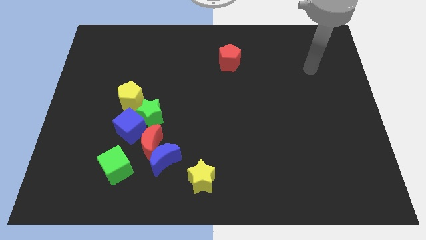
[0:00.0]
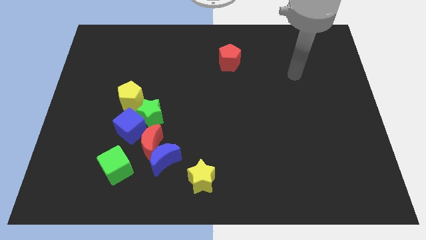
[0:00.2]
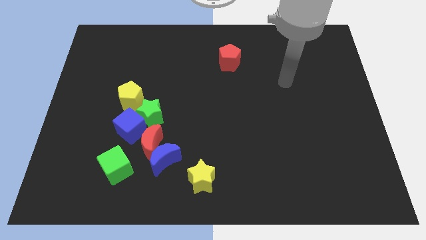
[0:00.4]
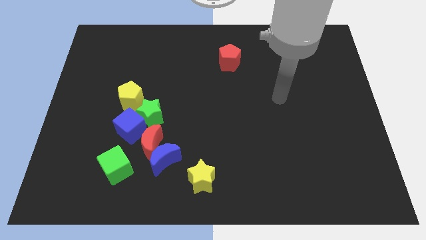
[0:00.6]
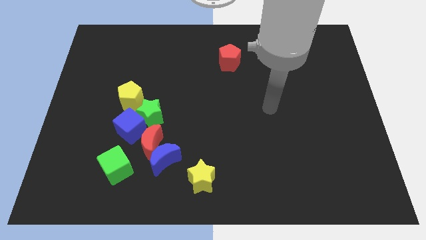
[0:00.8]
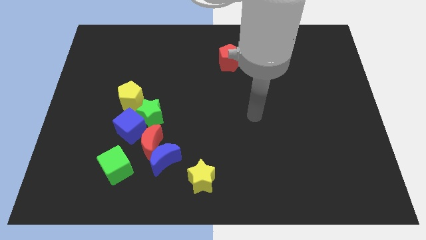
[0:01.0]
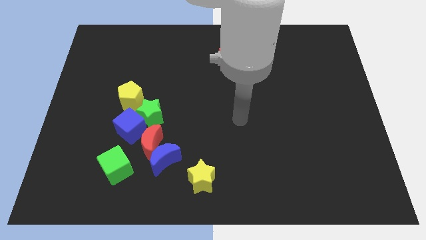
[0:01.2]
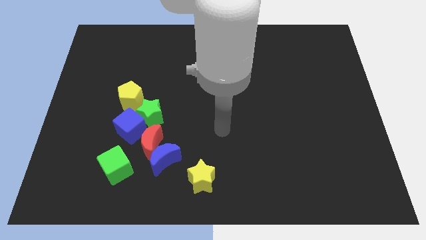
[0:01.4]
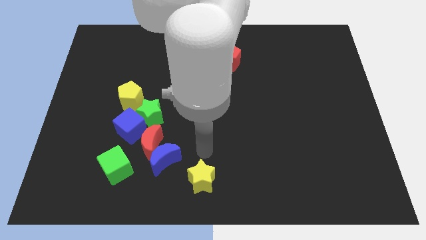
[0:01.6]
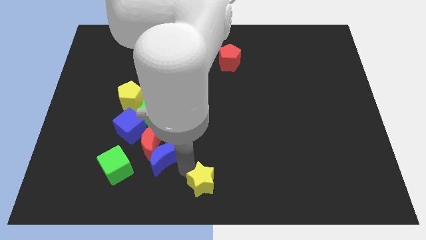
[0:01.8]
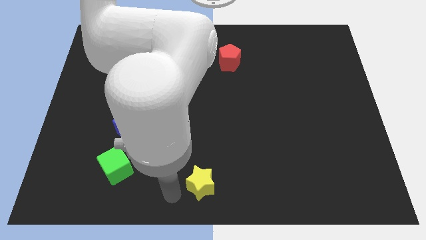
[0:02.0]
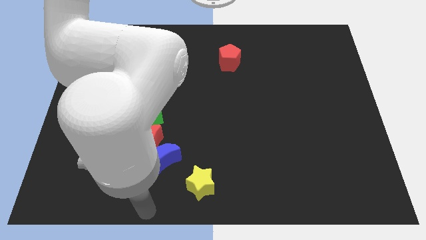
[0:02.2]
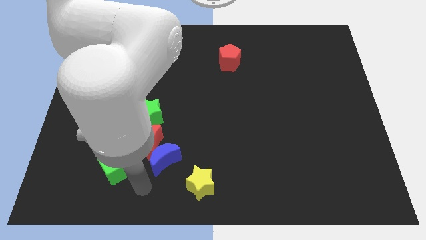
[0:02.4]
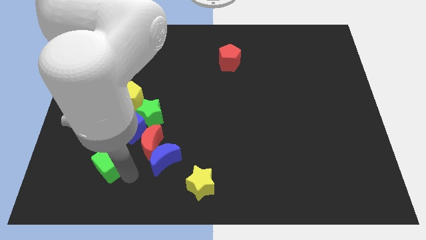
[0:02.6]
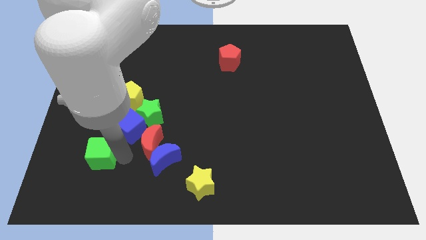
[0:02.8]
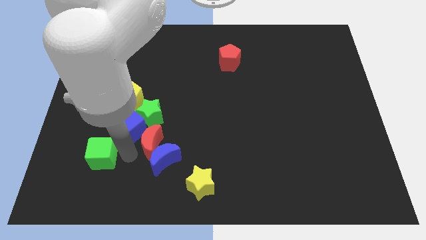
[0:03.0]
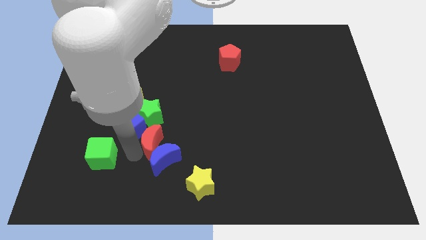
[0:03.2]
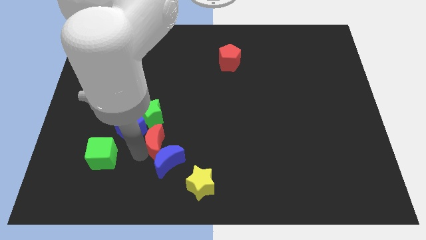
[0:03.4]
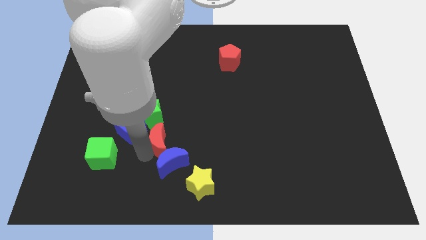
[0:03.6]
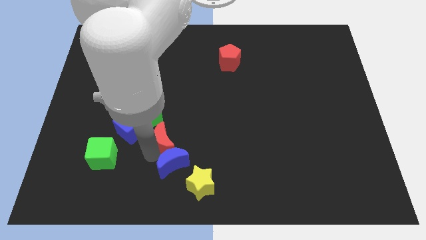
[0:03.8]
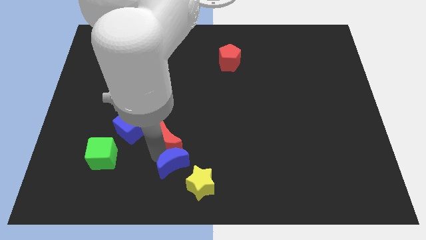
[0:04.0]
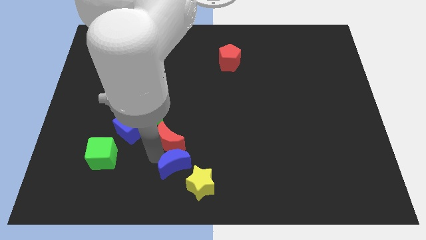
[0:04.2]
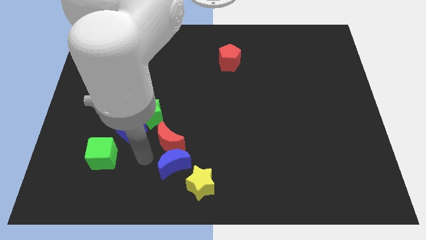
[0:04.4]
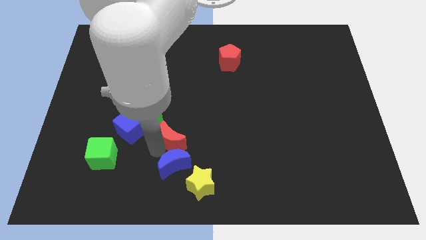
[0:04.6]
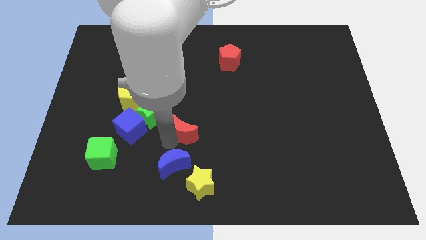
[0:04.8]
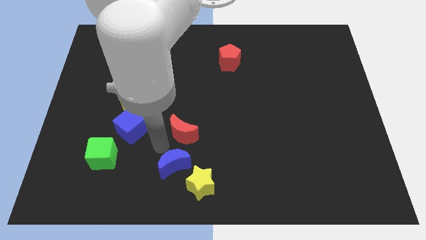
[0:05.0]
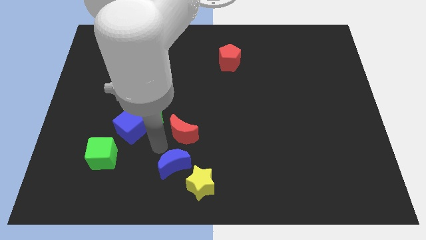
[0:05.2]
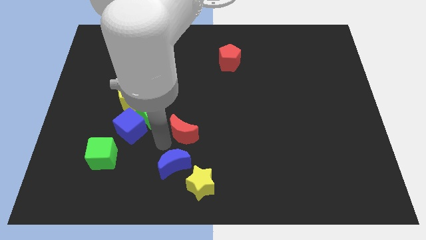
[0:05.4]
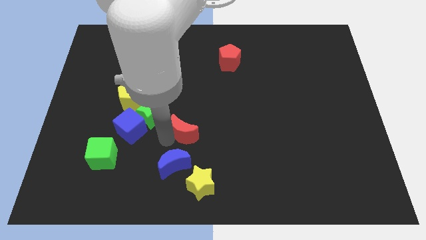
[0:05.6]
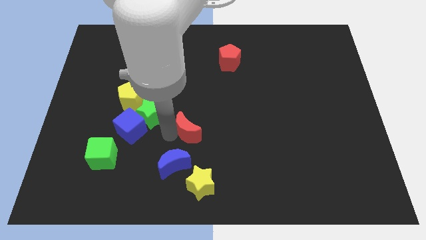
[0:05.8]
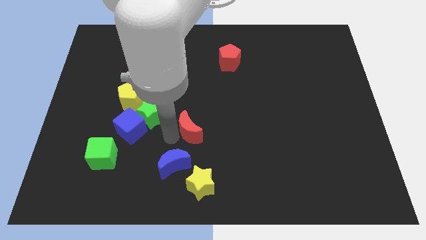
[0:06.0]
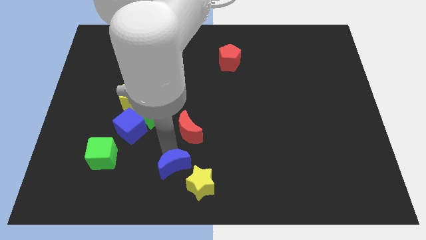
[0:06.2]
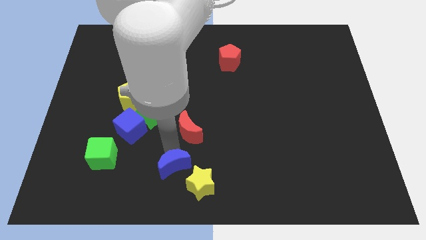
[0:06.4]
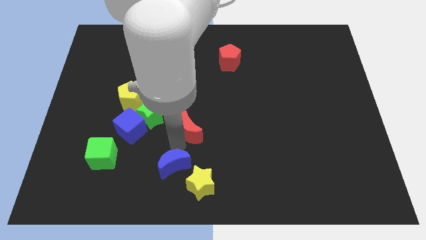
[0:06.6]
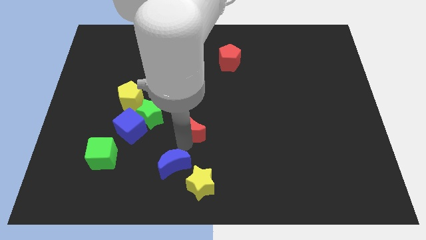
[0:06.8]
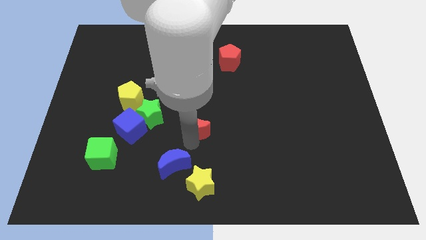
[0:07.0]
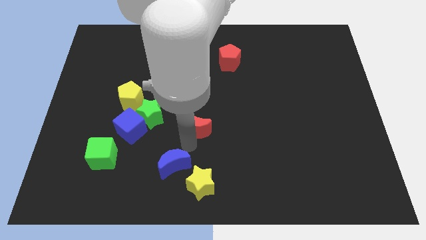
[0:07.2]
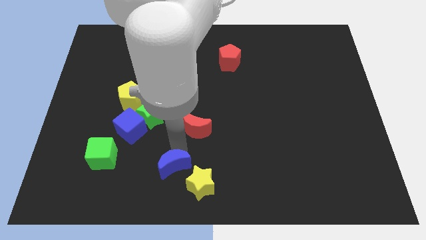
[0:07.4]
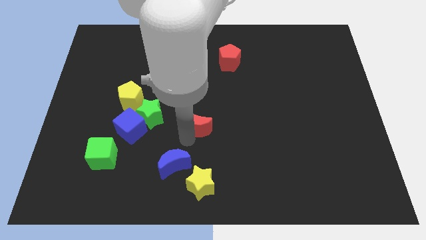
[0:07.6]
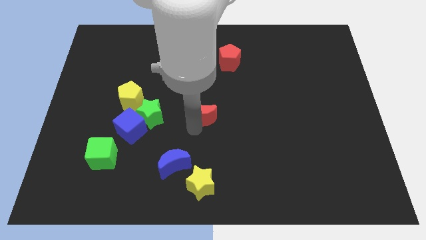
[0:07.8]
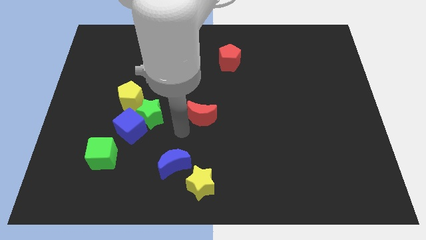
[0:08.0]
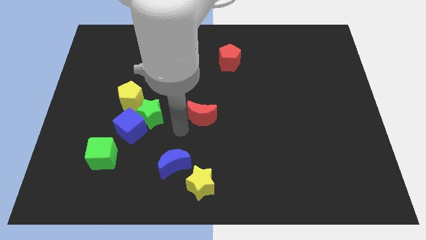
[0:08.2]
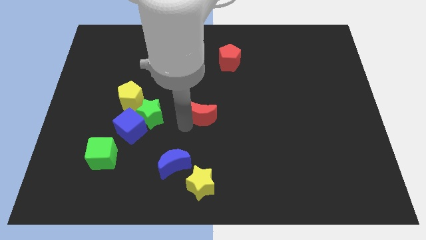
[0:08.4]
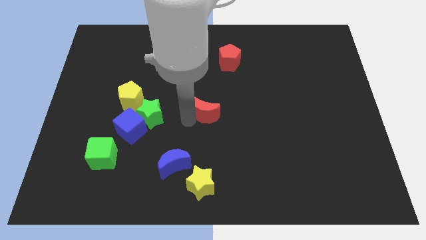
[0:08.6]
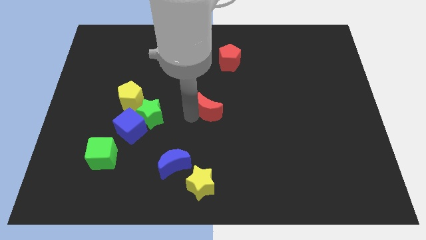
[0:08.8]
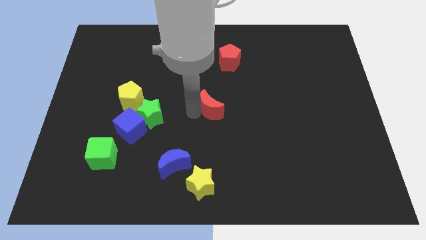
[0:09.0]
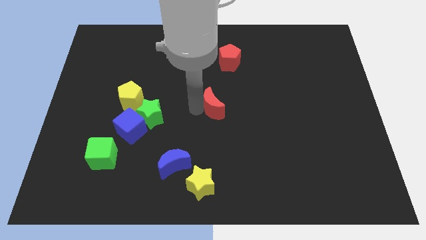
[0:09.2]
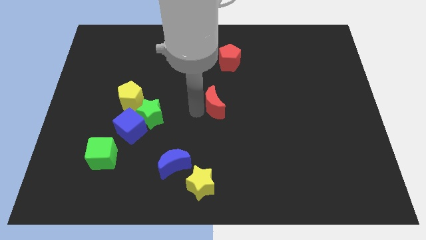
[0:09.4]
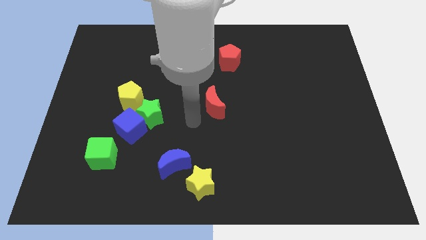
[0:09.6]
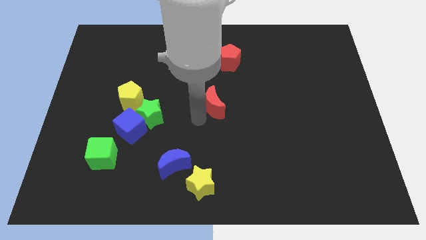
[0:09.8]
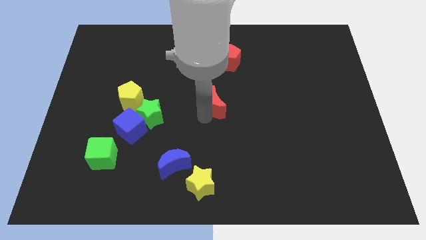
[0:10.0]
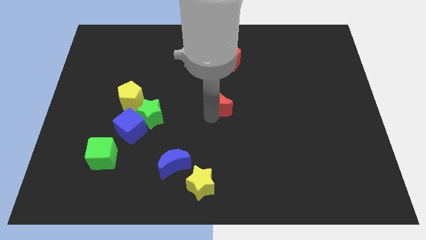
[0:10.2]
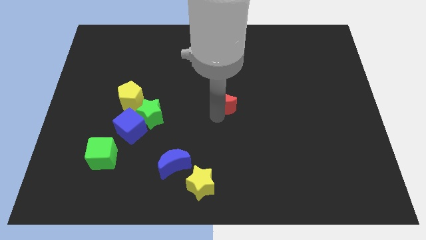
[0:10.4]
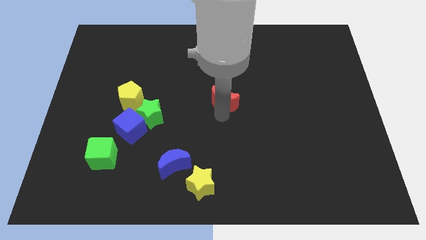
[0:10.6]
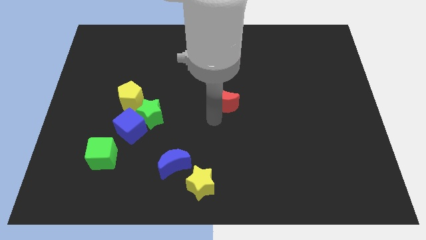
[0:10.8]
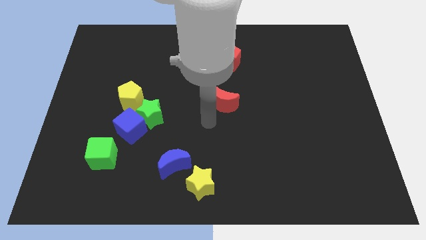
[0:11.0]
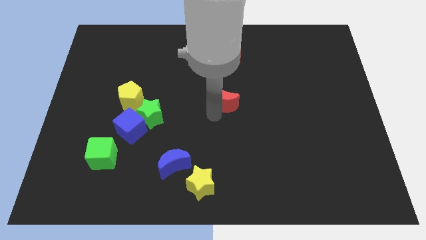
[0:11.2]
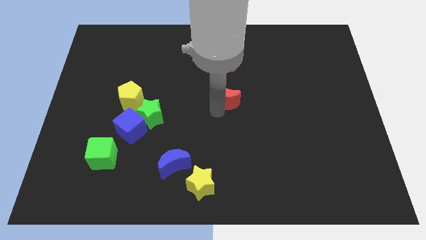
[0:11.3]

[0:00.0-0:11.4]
slide the red moon diagonally upwards and to the right

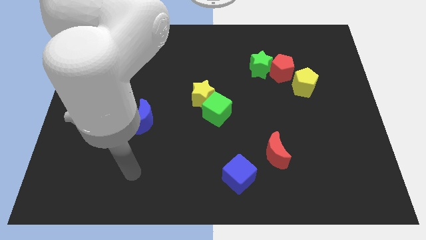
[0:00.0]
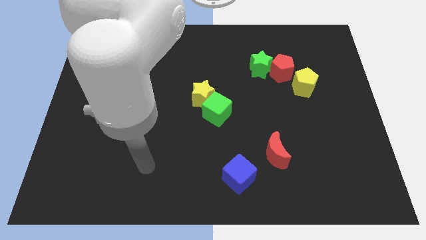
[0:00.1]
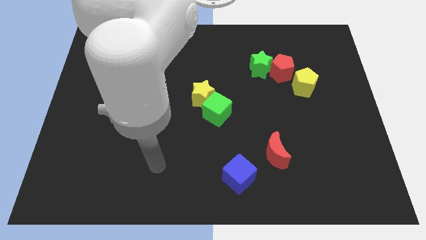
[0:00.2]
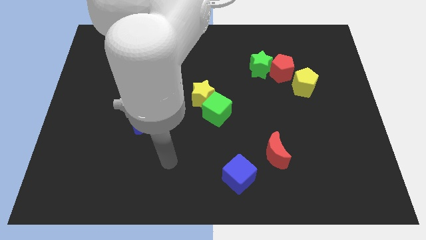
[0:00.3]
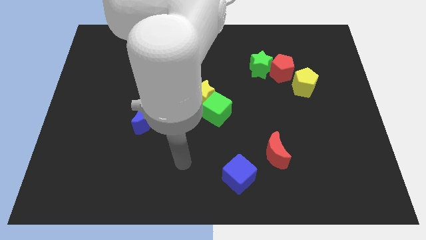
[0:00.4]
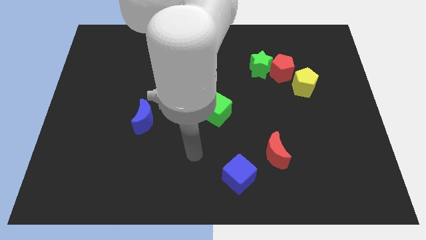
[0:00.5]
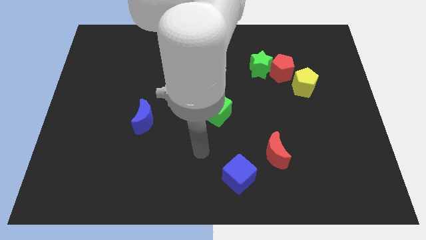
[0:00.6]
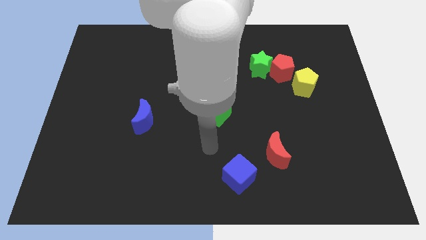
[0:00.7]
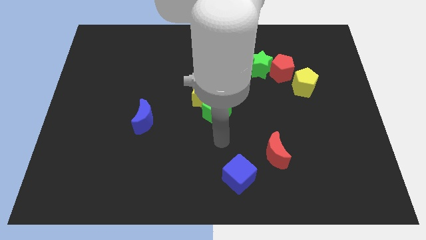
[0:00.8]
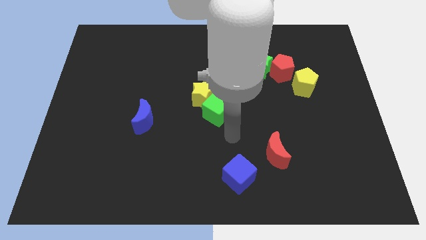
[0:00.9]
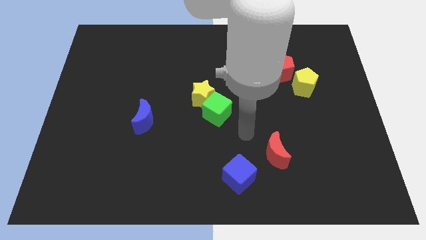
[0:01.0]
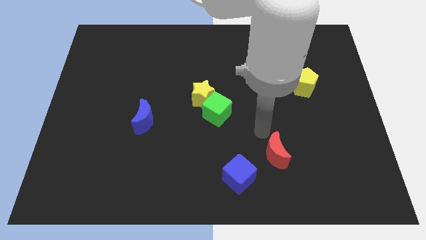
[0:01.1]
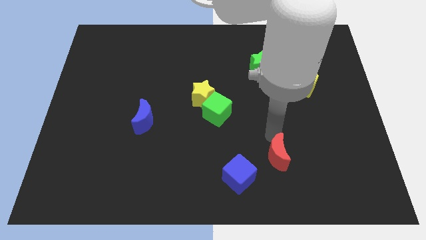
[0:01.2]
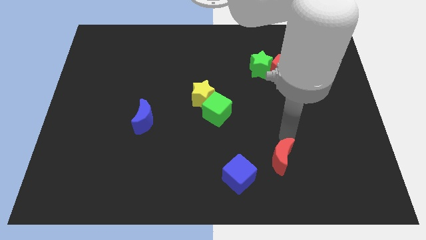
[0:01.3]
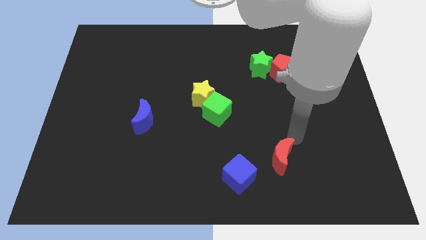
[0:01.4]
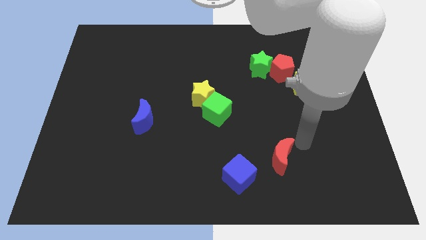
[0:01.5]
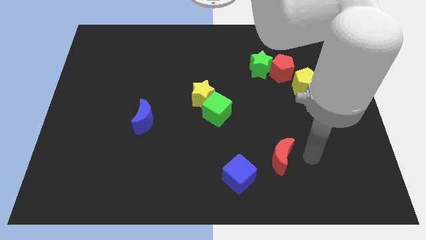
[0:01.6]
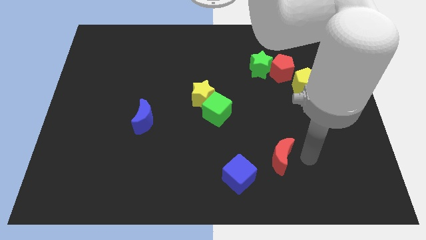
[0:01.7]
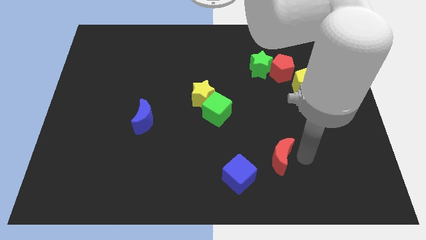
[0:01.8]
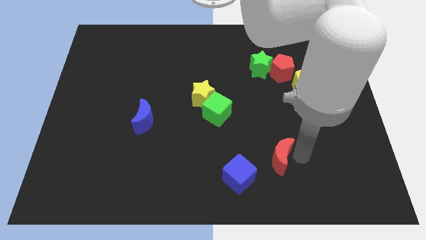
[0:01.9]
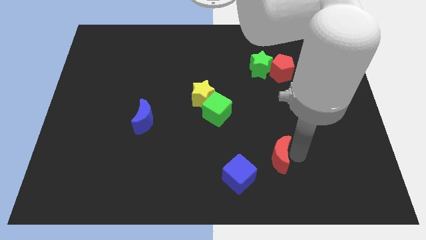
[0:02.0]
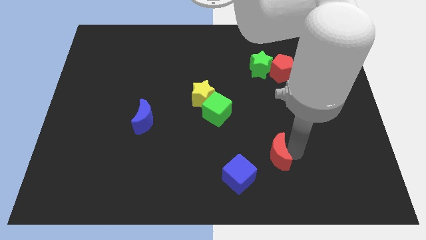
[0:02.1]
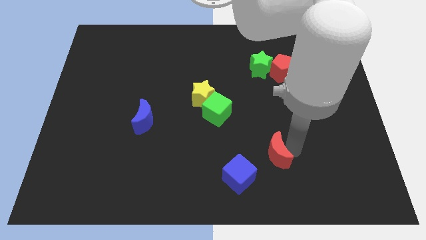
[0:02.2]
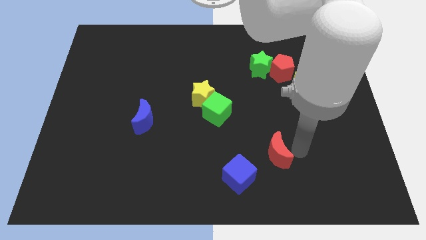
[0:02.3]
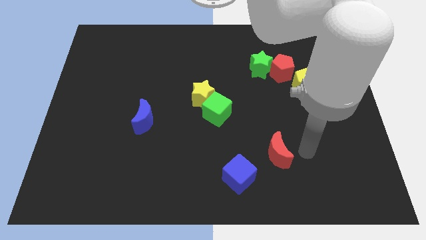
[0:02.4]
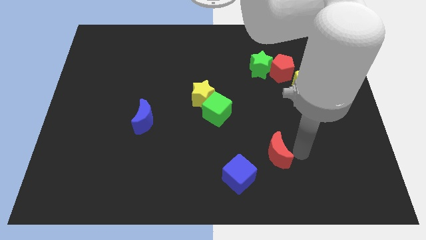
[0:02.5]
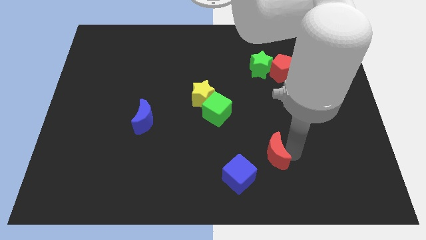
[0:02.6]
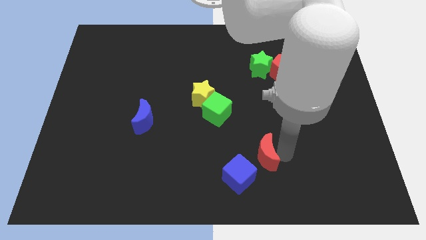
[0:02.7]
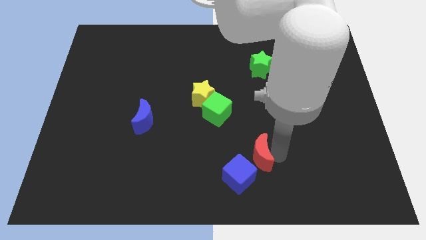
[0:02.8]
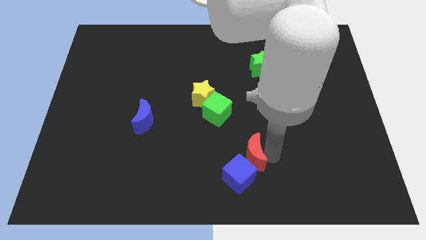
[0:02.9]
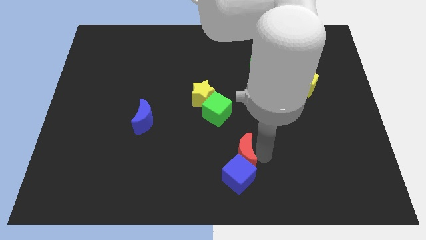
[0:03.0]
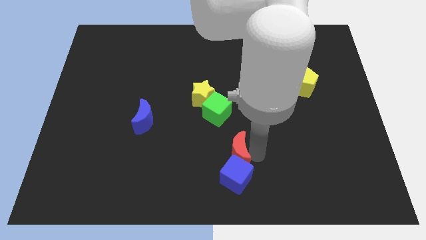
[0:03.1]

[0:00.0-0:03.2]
slightly move the red moon left
